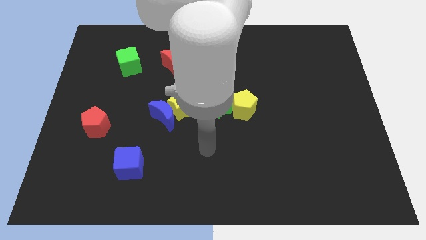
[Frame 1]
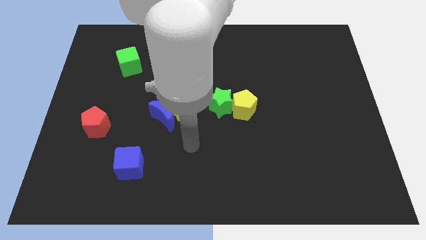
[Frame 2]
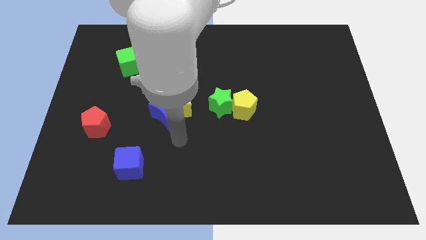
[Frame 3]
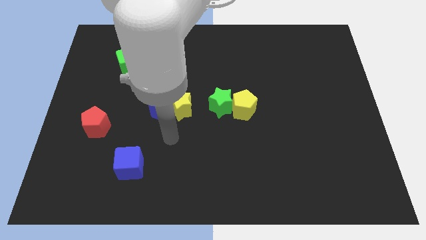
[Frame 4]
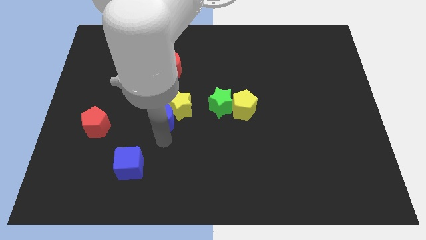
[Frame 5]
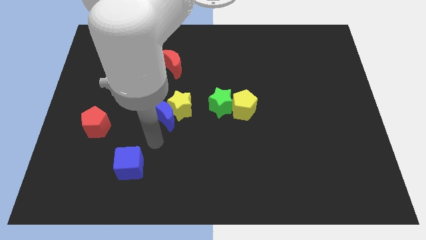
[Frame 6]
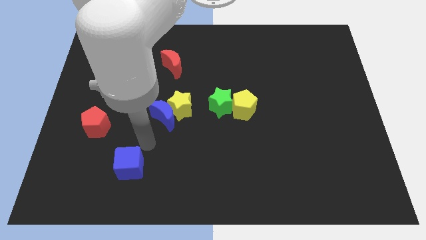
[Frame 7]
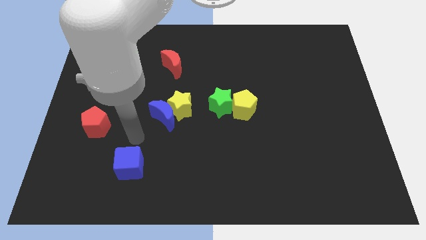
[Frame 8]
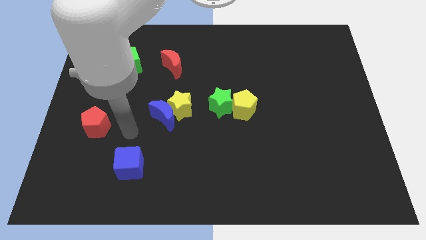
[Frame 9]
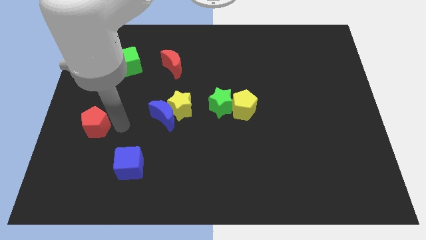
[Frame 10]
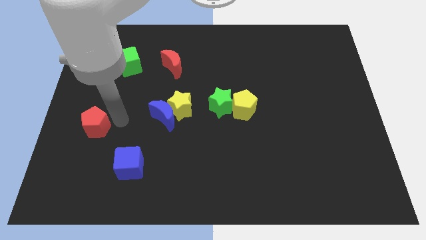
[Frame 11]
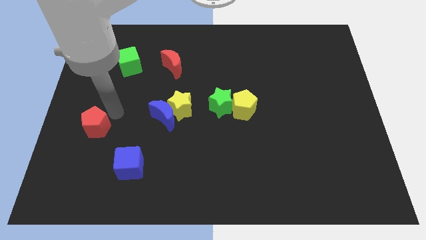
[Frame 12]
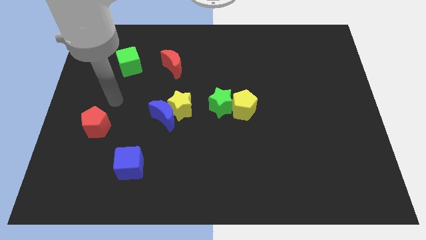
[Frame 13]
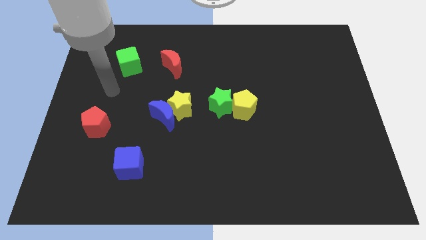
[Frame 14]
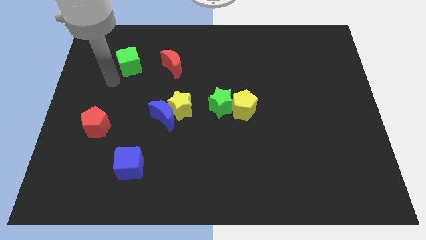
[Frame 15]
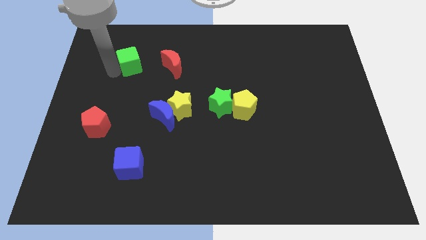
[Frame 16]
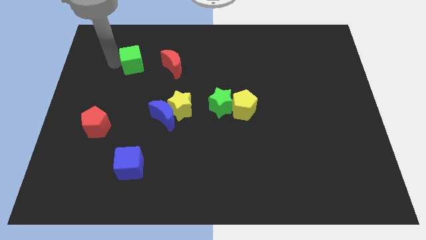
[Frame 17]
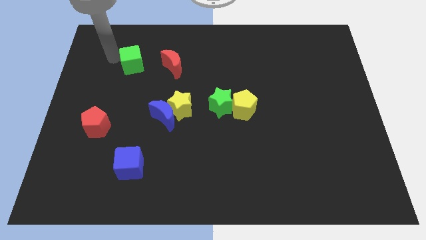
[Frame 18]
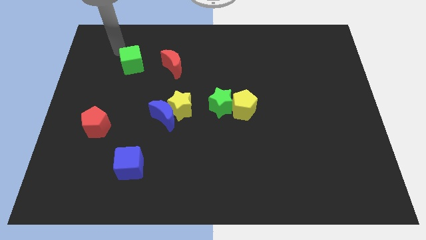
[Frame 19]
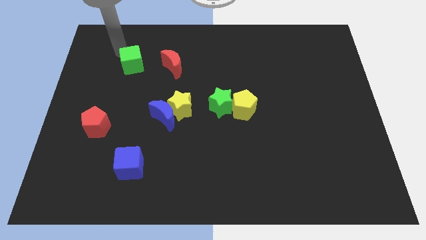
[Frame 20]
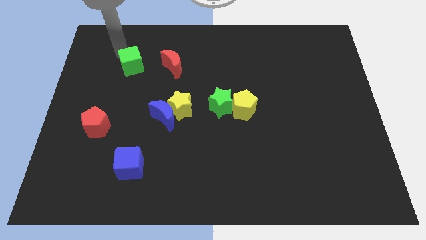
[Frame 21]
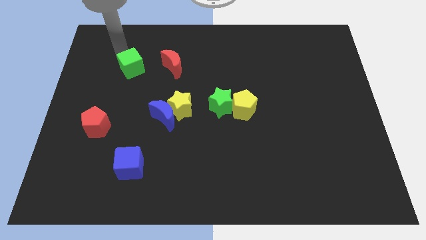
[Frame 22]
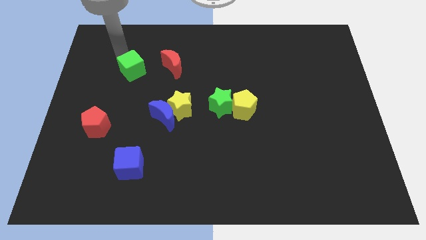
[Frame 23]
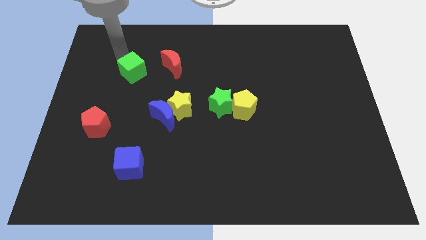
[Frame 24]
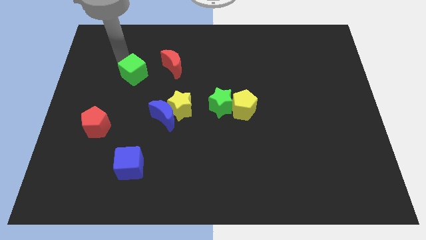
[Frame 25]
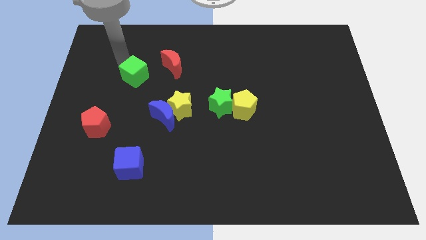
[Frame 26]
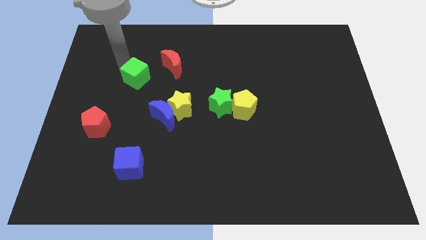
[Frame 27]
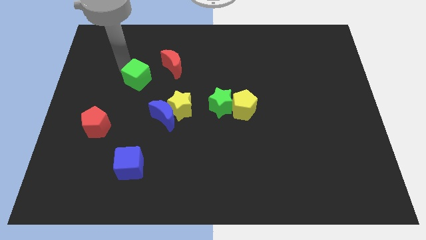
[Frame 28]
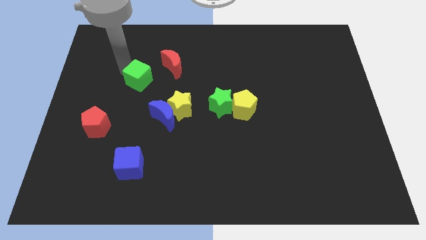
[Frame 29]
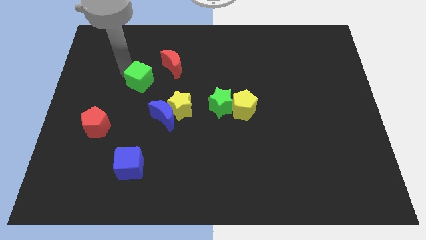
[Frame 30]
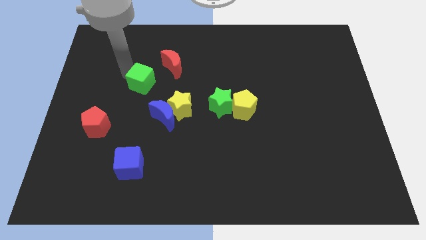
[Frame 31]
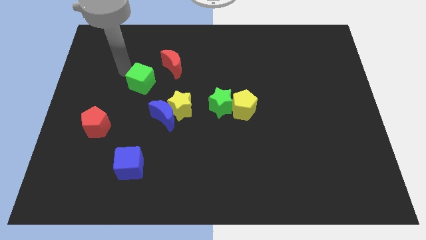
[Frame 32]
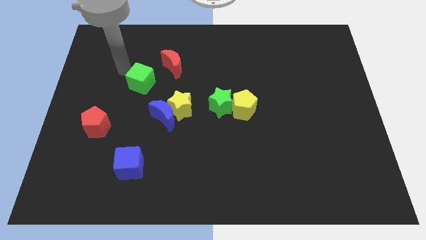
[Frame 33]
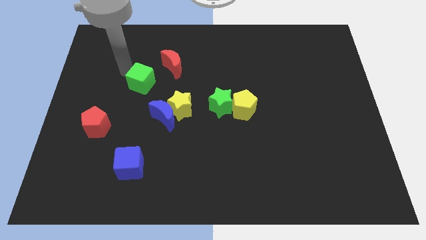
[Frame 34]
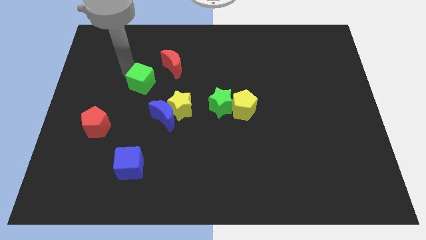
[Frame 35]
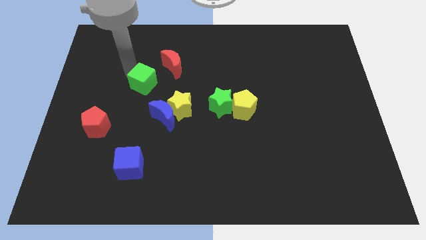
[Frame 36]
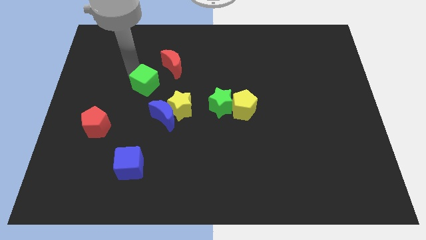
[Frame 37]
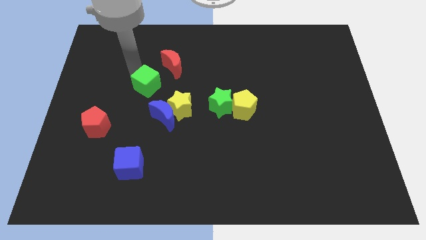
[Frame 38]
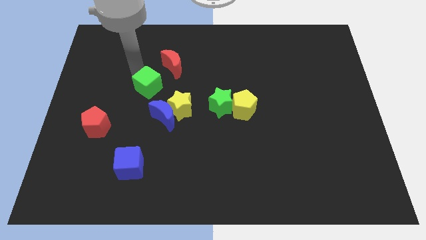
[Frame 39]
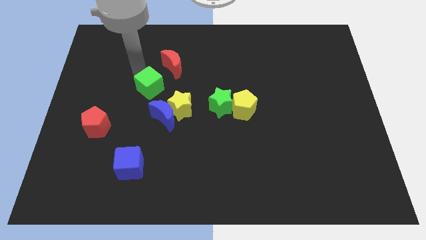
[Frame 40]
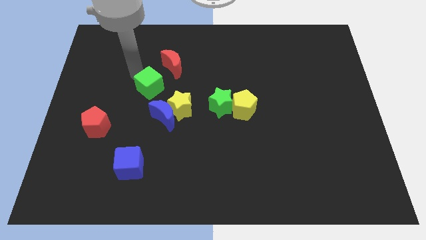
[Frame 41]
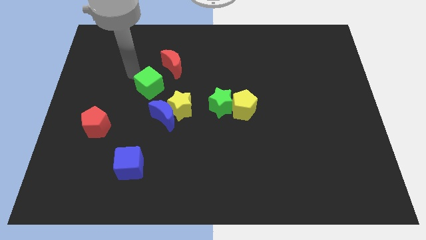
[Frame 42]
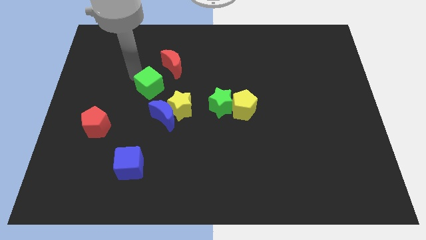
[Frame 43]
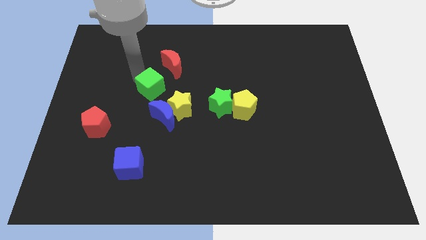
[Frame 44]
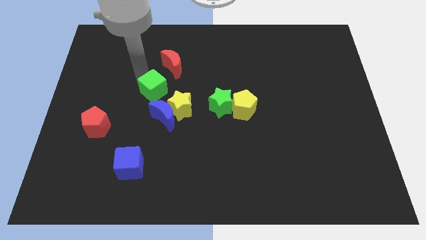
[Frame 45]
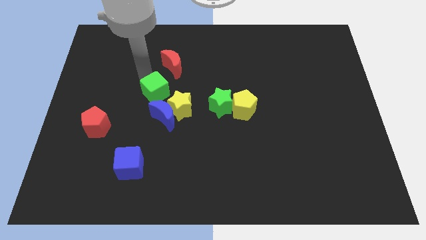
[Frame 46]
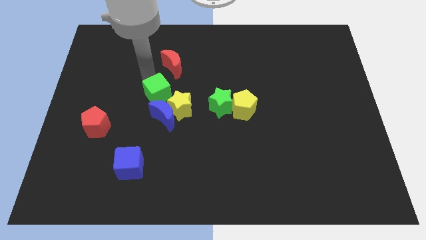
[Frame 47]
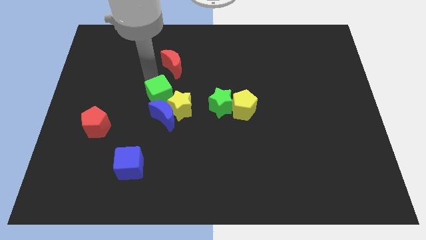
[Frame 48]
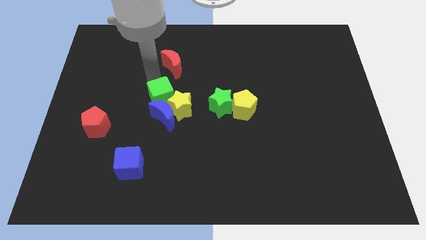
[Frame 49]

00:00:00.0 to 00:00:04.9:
push the green cube next to the blue moon

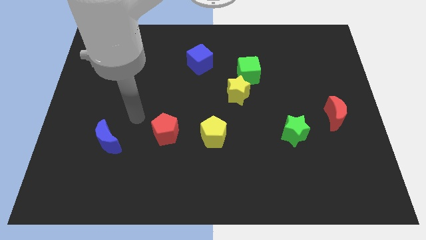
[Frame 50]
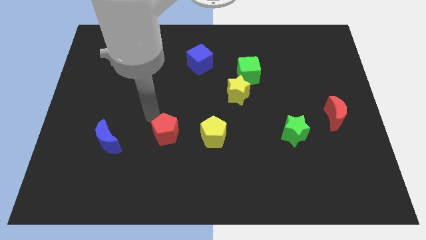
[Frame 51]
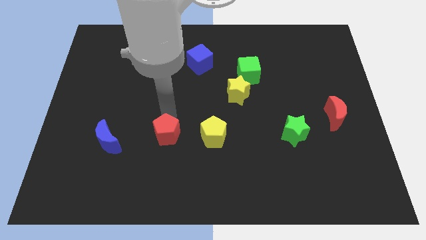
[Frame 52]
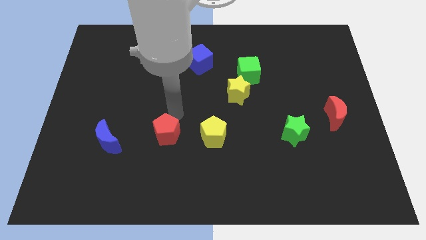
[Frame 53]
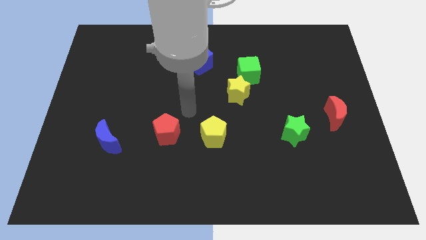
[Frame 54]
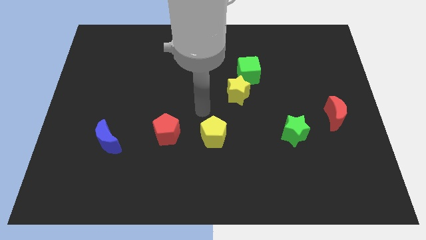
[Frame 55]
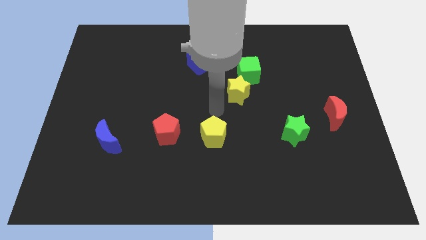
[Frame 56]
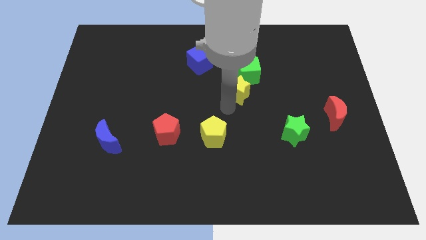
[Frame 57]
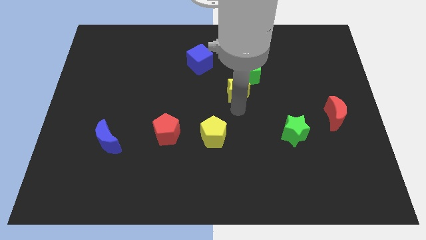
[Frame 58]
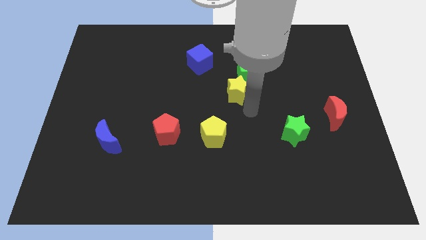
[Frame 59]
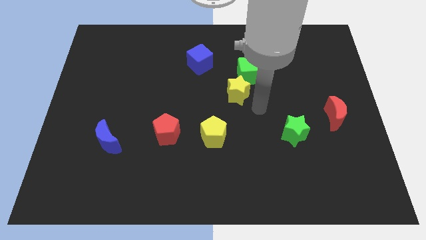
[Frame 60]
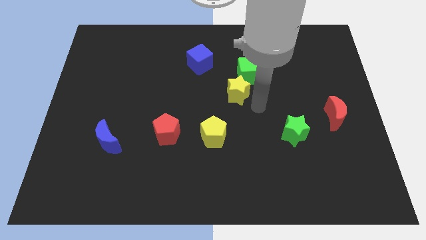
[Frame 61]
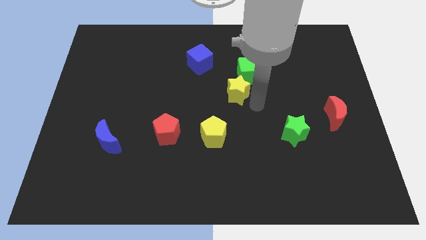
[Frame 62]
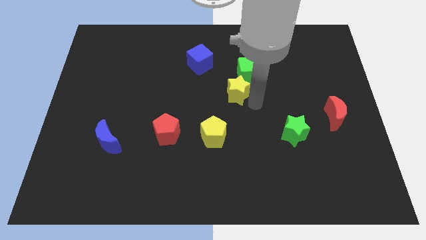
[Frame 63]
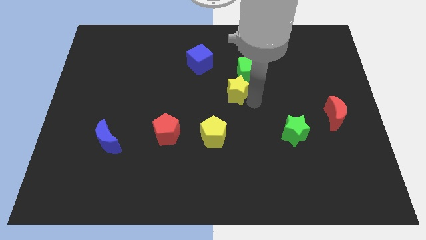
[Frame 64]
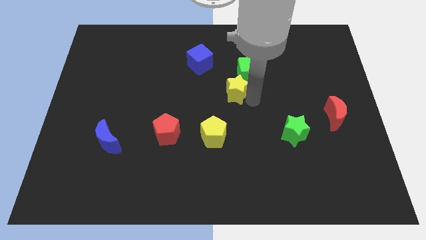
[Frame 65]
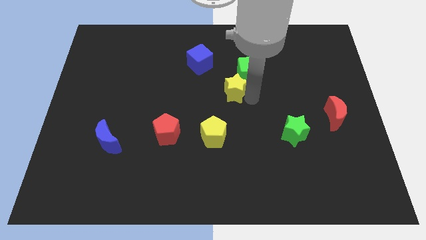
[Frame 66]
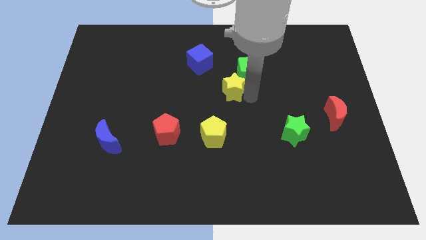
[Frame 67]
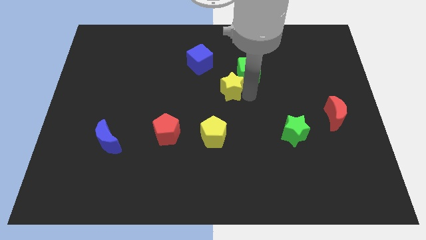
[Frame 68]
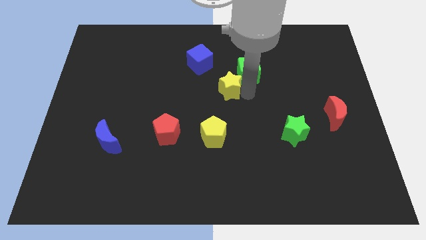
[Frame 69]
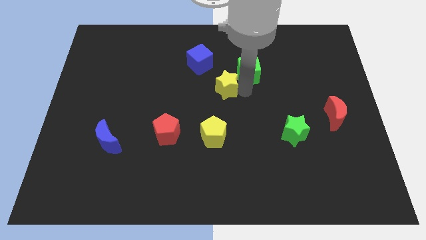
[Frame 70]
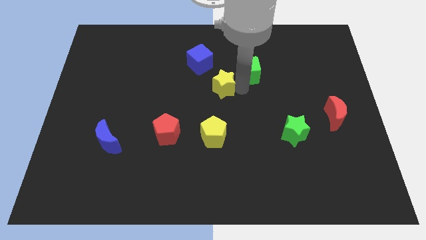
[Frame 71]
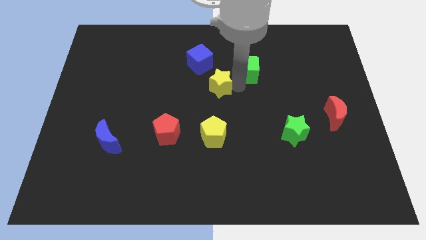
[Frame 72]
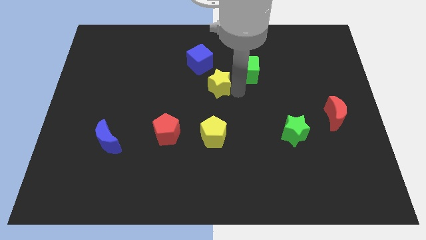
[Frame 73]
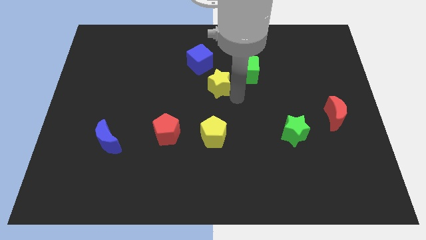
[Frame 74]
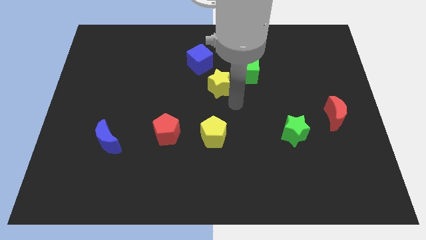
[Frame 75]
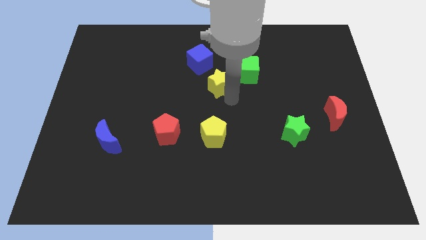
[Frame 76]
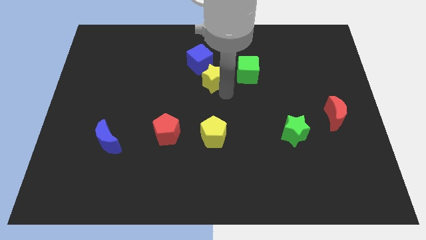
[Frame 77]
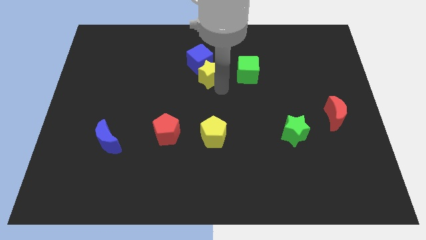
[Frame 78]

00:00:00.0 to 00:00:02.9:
move the yellow star close to the blue cube
